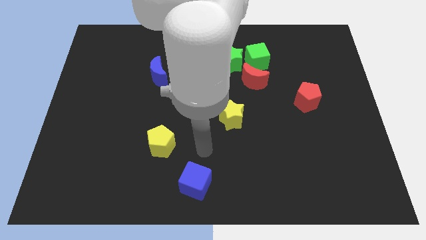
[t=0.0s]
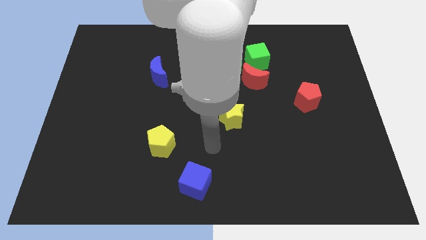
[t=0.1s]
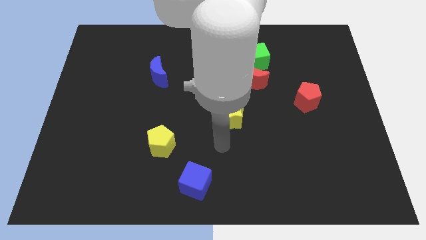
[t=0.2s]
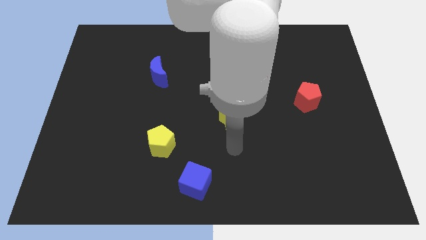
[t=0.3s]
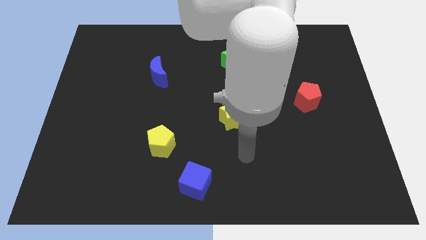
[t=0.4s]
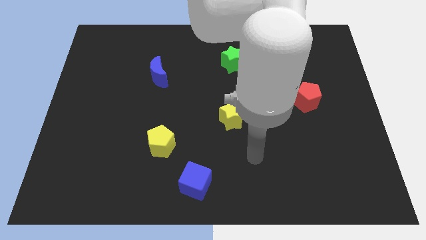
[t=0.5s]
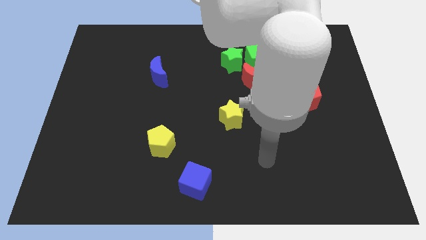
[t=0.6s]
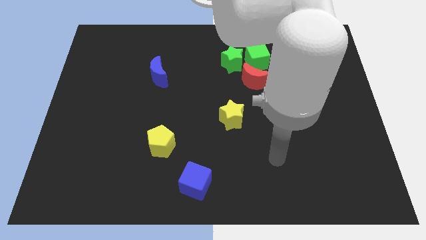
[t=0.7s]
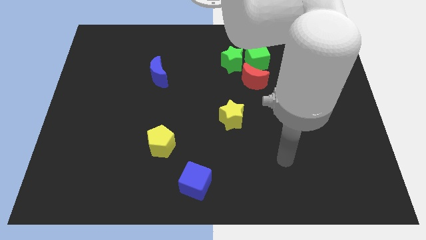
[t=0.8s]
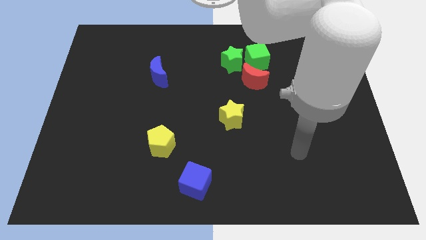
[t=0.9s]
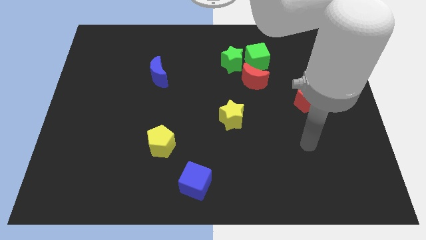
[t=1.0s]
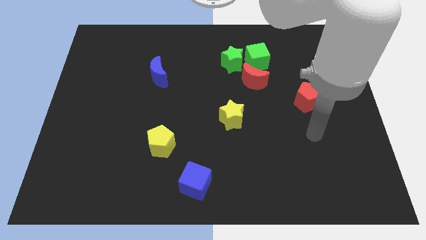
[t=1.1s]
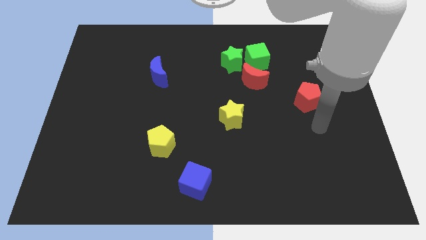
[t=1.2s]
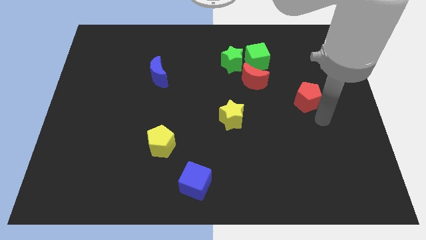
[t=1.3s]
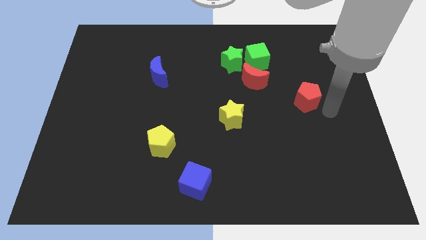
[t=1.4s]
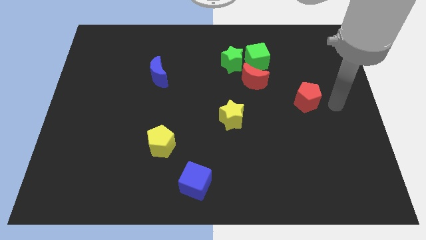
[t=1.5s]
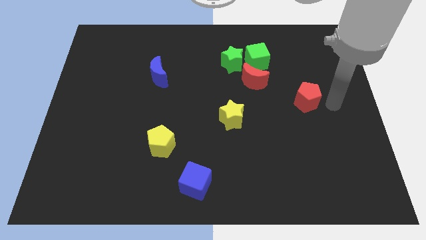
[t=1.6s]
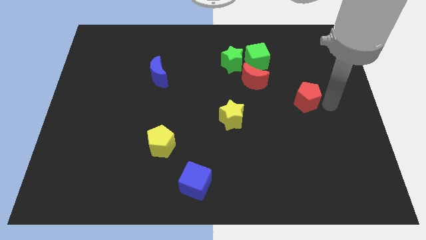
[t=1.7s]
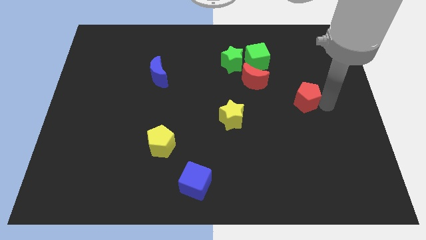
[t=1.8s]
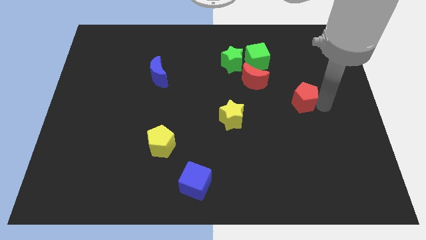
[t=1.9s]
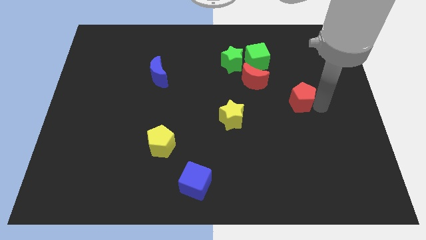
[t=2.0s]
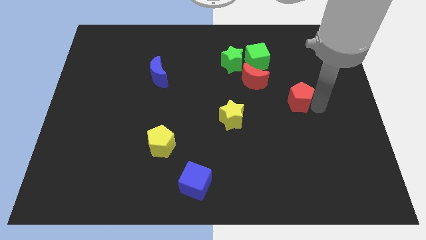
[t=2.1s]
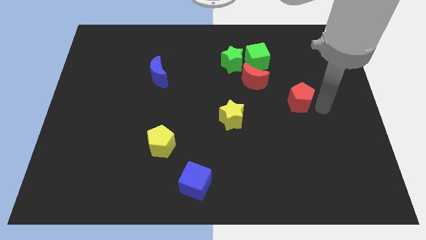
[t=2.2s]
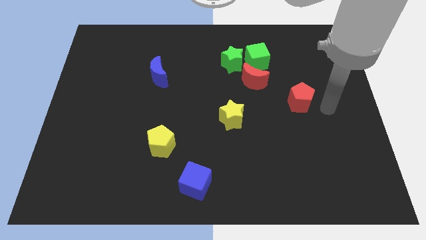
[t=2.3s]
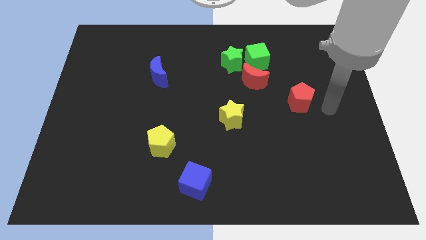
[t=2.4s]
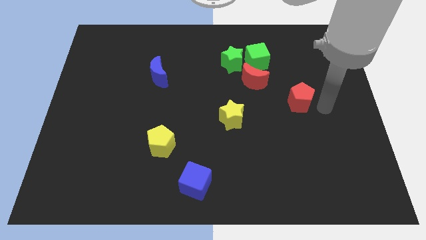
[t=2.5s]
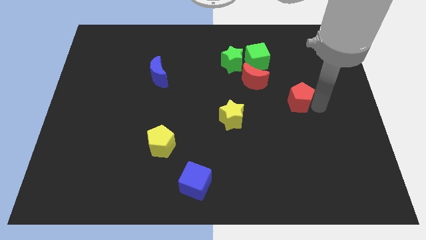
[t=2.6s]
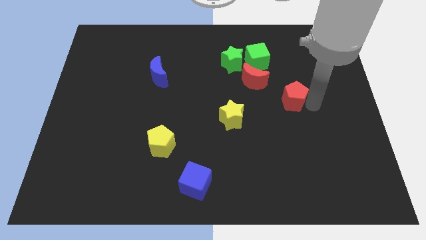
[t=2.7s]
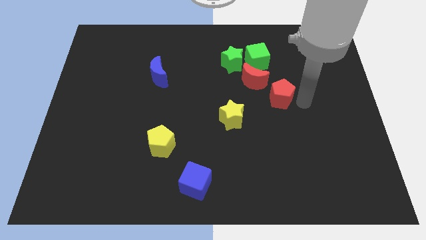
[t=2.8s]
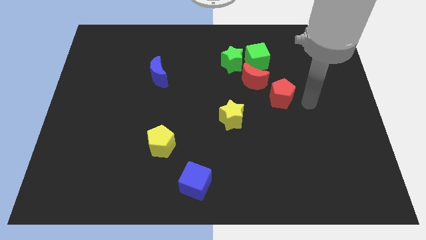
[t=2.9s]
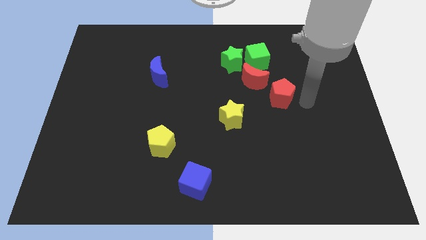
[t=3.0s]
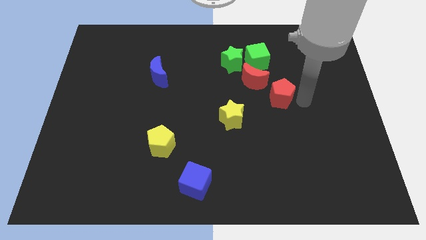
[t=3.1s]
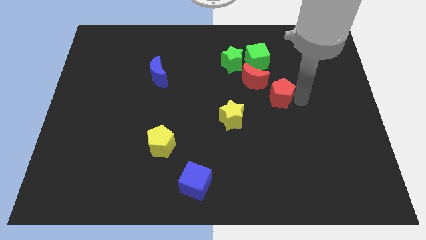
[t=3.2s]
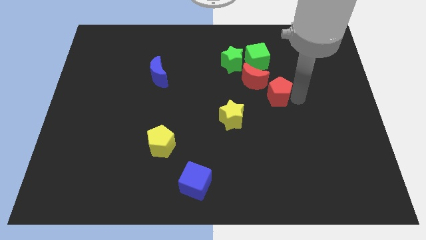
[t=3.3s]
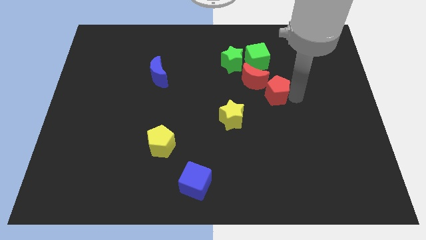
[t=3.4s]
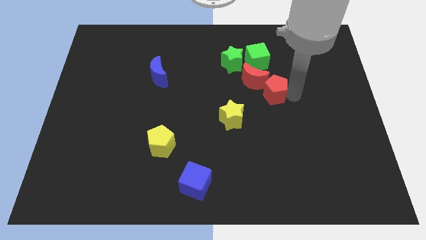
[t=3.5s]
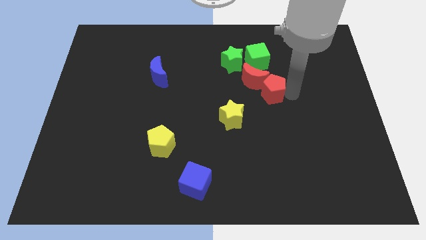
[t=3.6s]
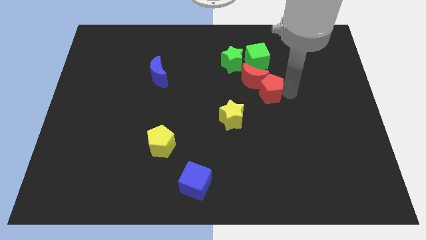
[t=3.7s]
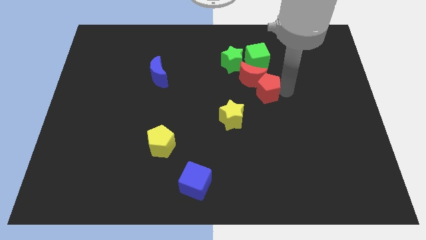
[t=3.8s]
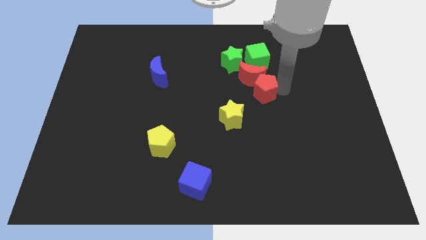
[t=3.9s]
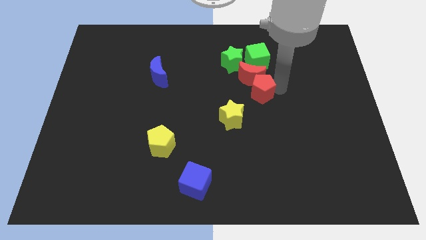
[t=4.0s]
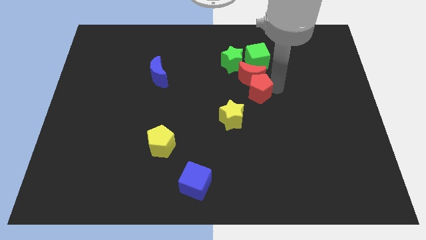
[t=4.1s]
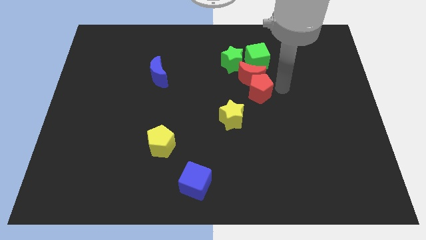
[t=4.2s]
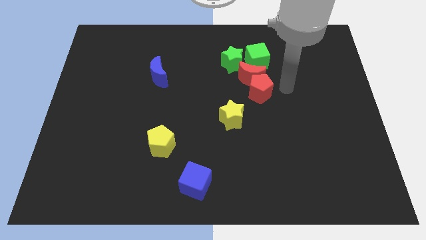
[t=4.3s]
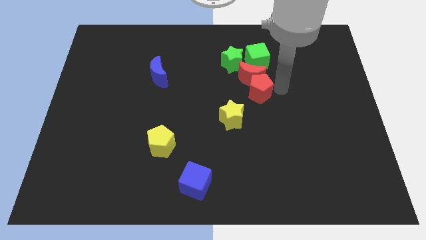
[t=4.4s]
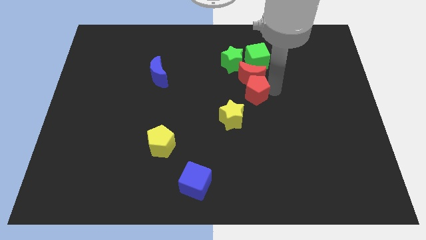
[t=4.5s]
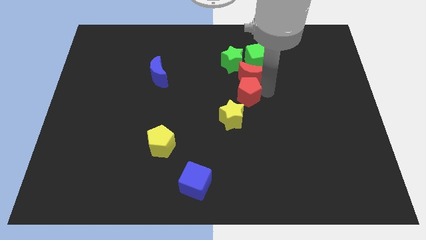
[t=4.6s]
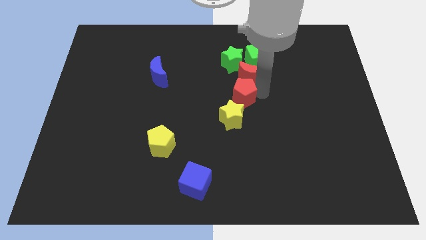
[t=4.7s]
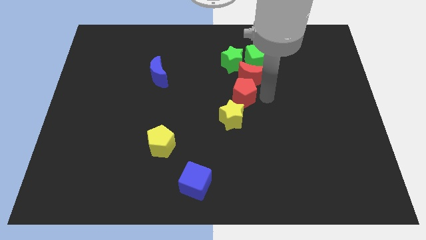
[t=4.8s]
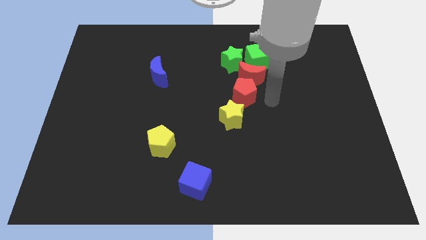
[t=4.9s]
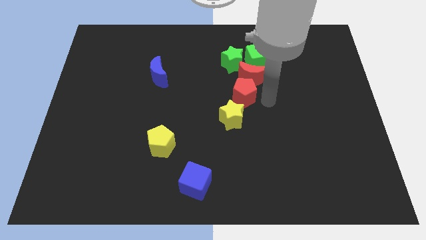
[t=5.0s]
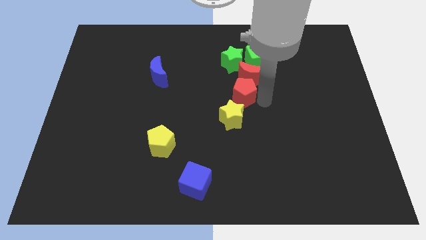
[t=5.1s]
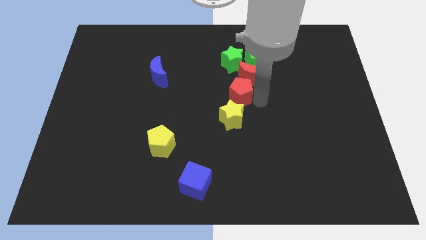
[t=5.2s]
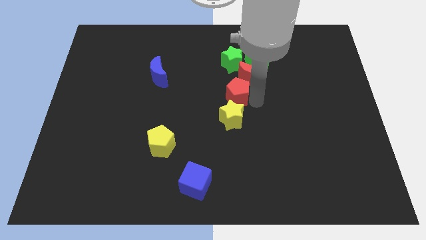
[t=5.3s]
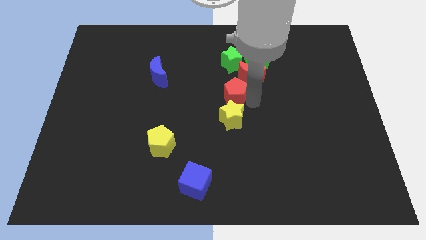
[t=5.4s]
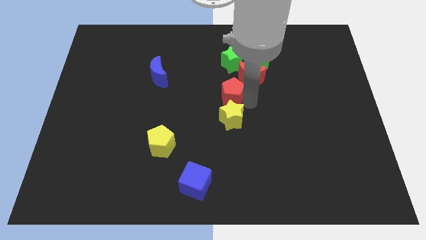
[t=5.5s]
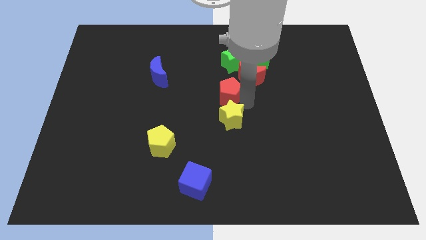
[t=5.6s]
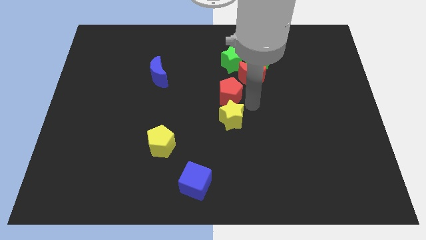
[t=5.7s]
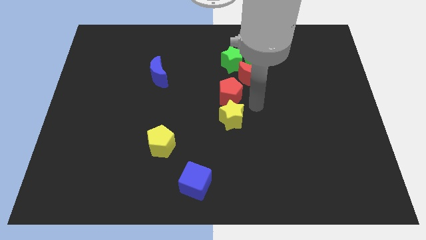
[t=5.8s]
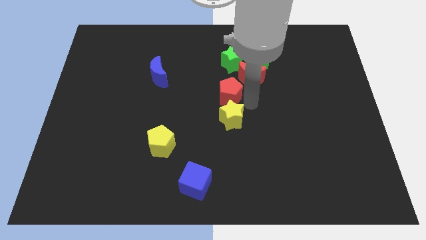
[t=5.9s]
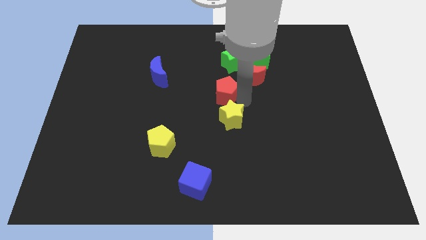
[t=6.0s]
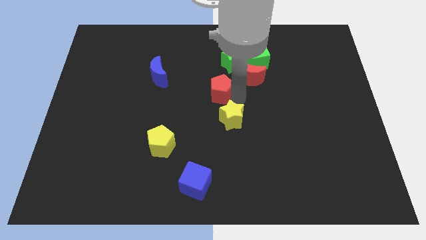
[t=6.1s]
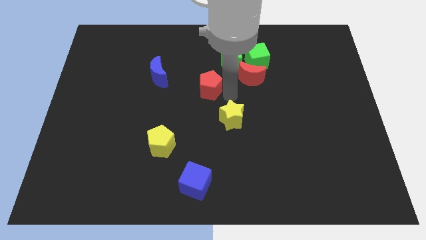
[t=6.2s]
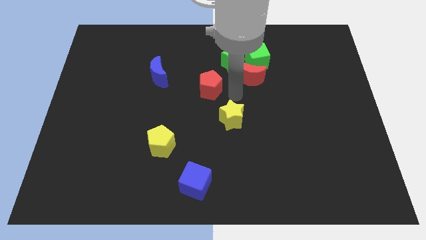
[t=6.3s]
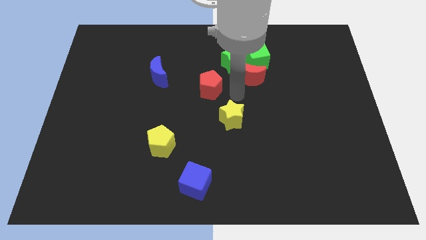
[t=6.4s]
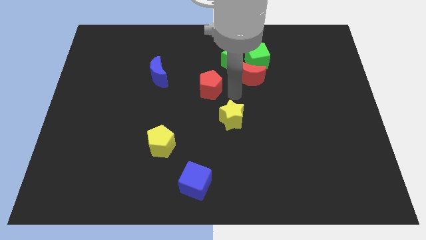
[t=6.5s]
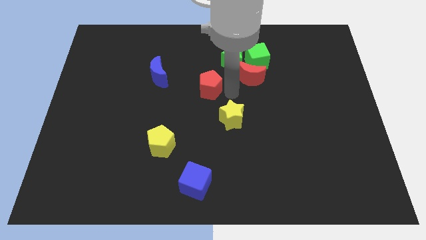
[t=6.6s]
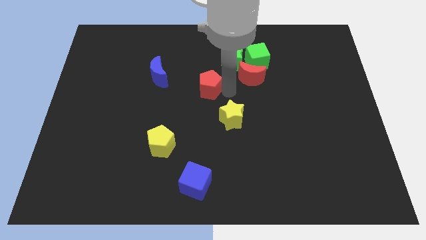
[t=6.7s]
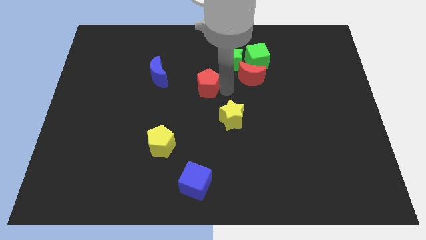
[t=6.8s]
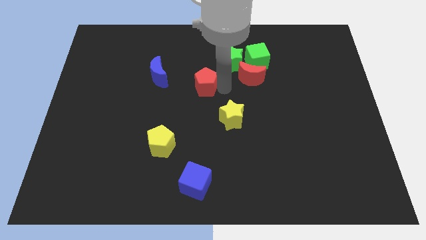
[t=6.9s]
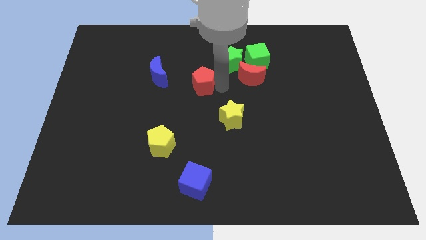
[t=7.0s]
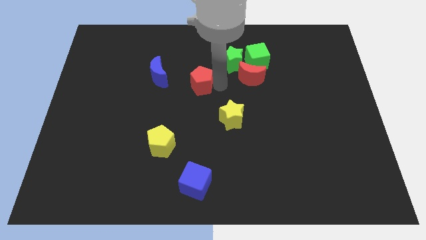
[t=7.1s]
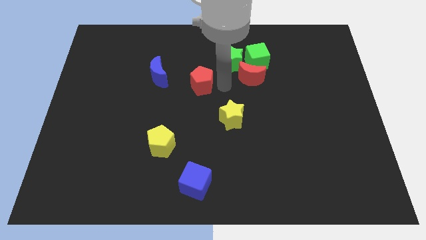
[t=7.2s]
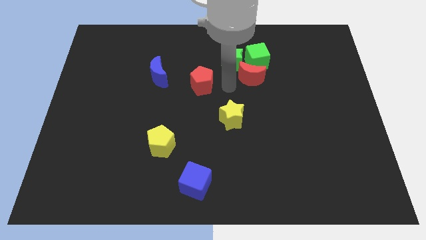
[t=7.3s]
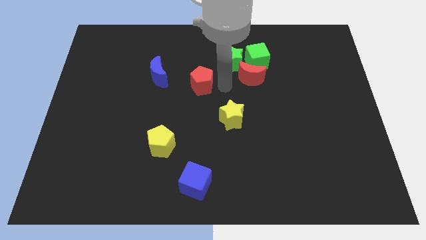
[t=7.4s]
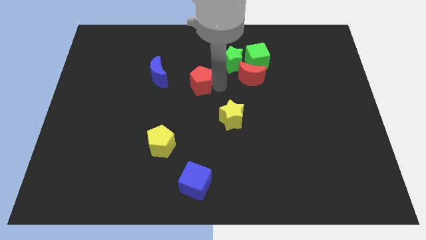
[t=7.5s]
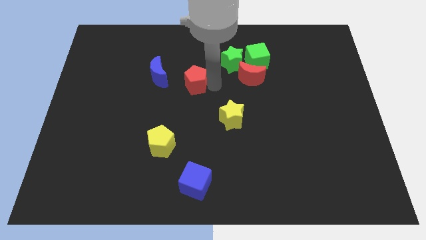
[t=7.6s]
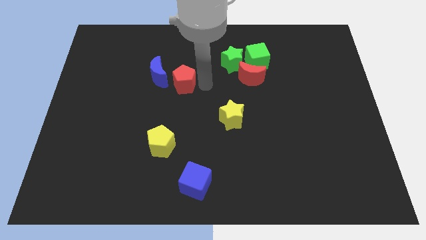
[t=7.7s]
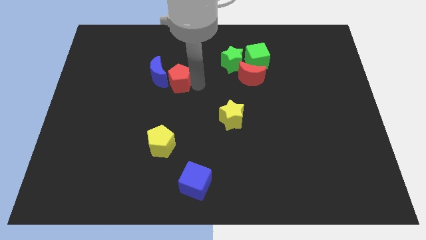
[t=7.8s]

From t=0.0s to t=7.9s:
push the red pentagon to the blue moon
